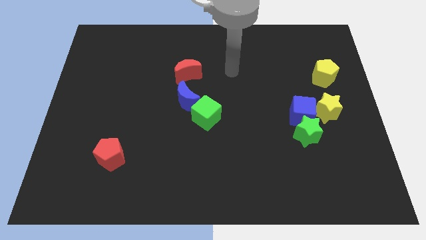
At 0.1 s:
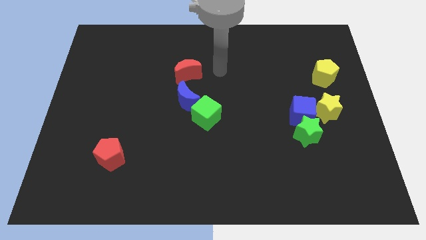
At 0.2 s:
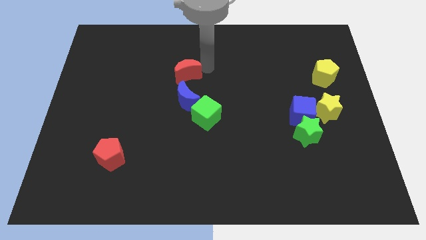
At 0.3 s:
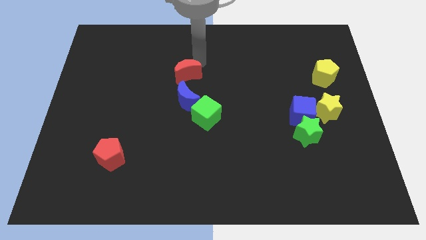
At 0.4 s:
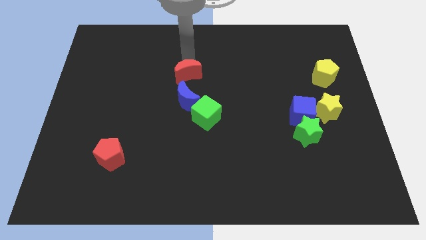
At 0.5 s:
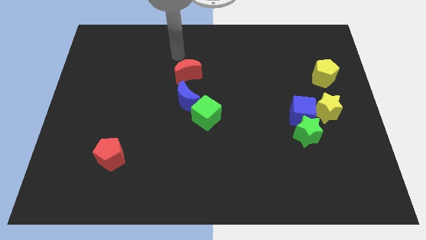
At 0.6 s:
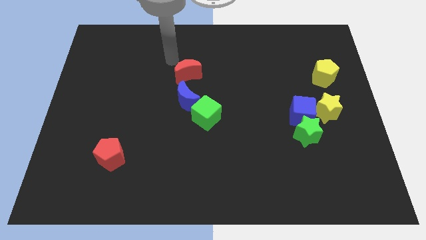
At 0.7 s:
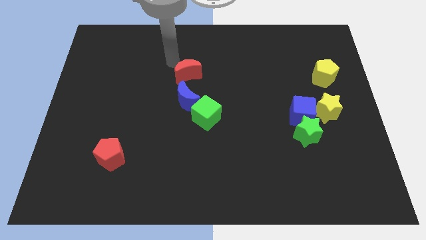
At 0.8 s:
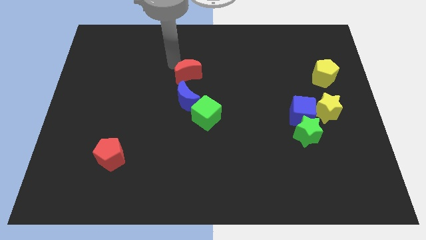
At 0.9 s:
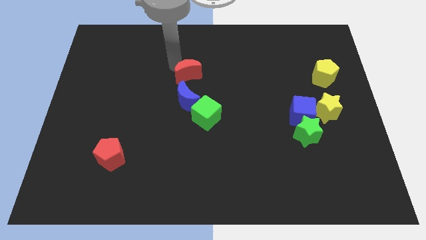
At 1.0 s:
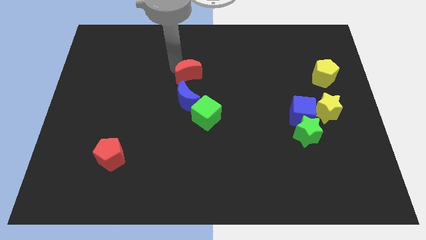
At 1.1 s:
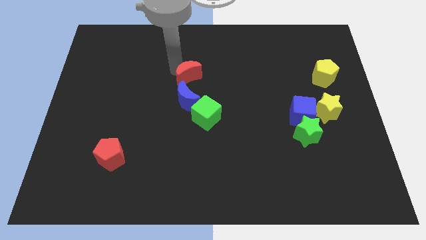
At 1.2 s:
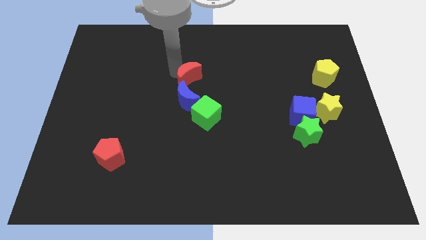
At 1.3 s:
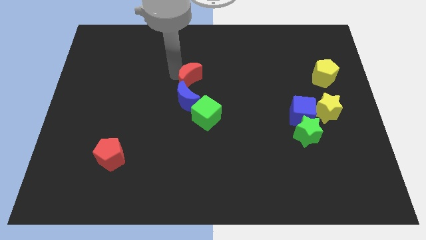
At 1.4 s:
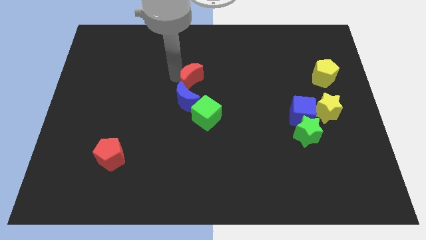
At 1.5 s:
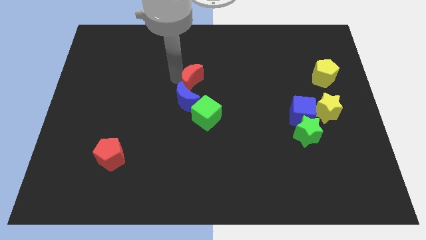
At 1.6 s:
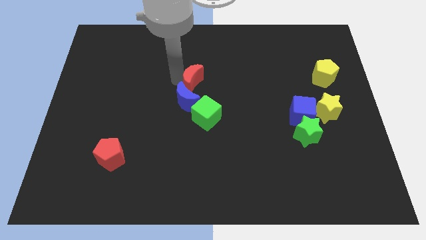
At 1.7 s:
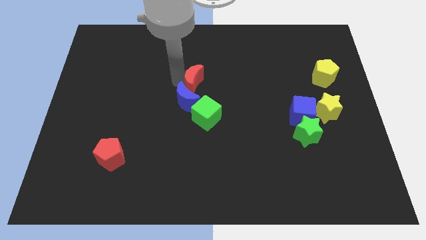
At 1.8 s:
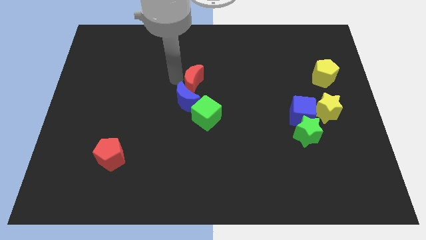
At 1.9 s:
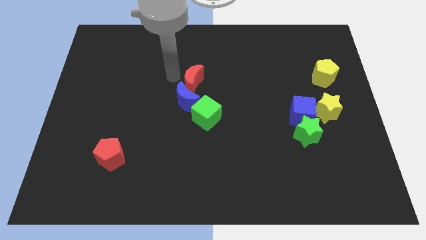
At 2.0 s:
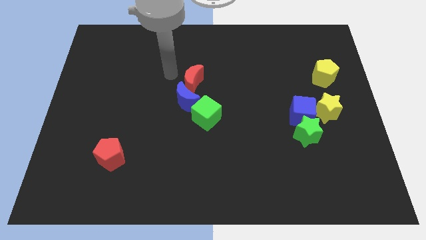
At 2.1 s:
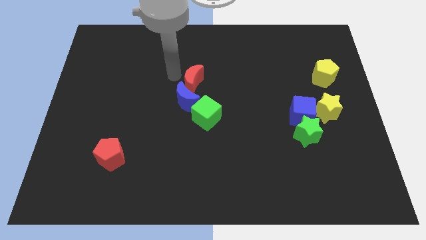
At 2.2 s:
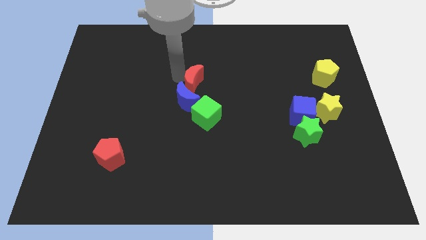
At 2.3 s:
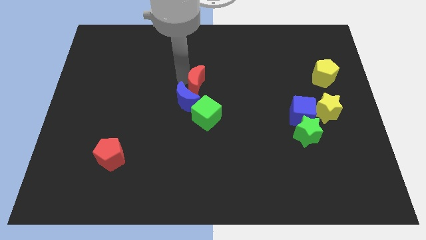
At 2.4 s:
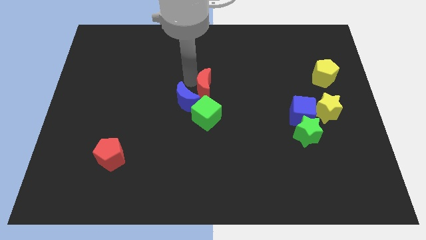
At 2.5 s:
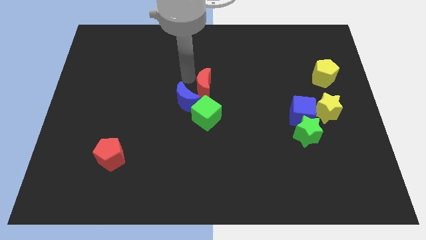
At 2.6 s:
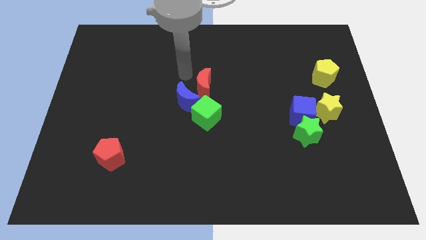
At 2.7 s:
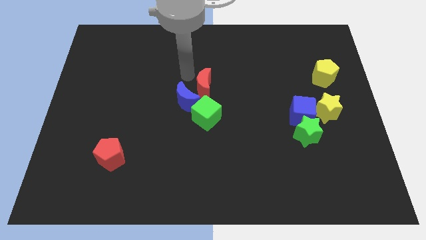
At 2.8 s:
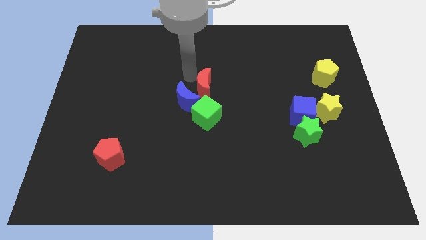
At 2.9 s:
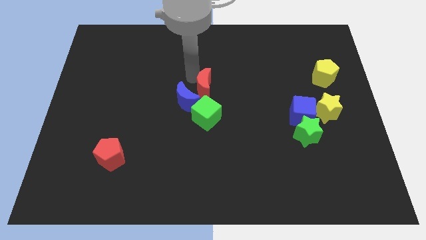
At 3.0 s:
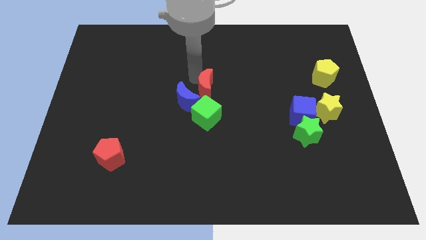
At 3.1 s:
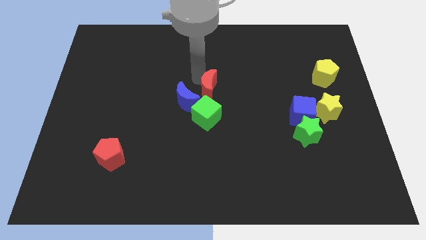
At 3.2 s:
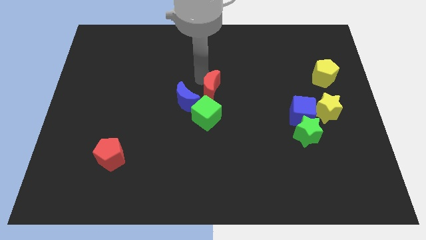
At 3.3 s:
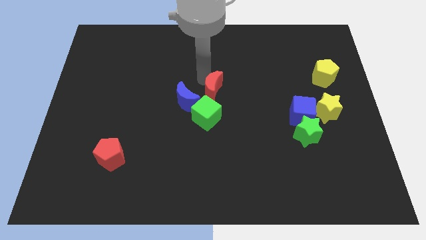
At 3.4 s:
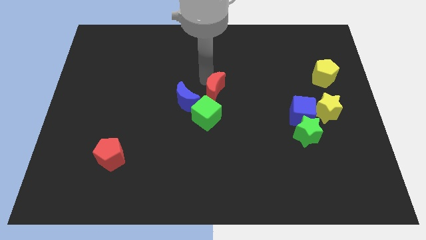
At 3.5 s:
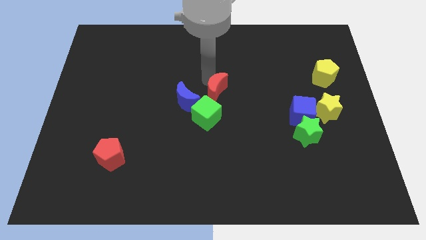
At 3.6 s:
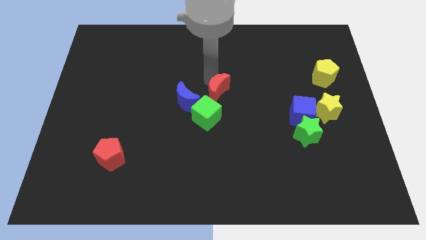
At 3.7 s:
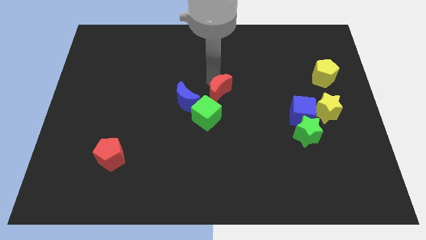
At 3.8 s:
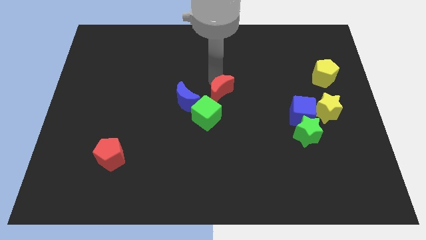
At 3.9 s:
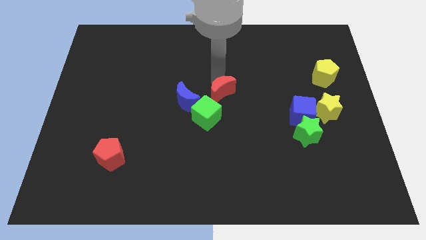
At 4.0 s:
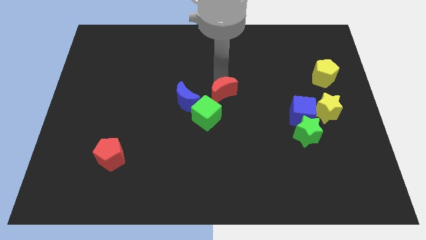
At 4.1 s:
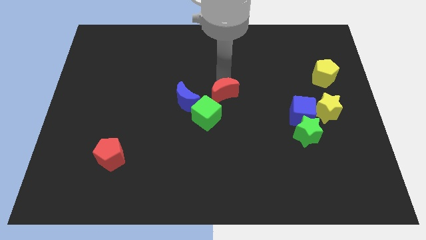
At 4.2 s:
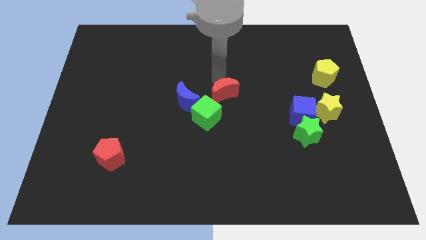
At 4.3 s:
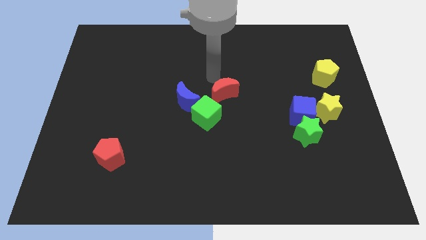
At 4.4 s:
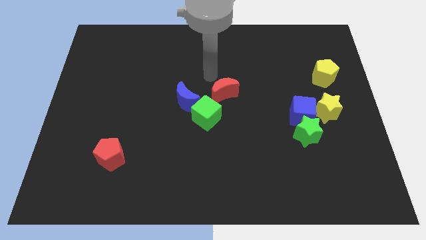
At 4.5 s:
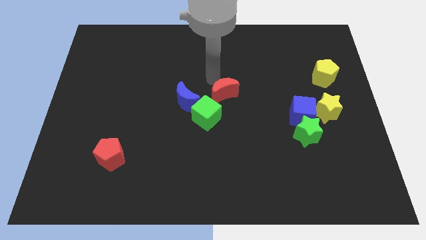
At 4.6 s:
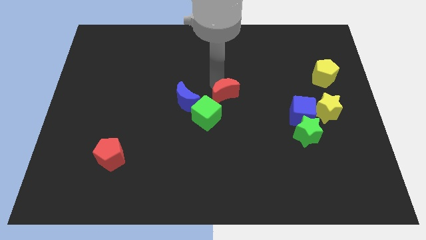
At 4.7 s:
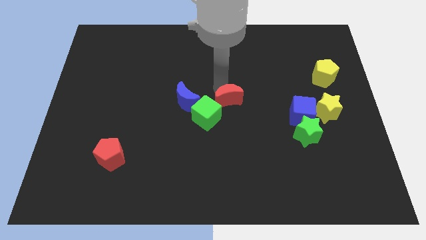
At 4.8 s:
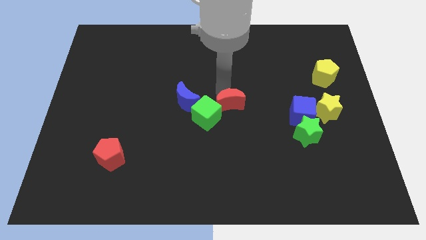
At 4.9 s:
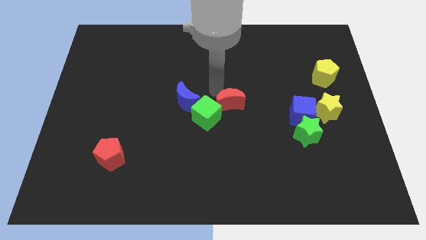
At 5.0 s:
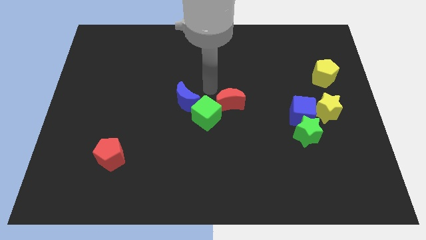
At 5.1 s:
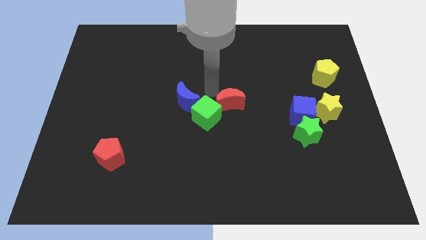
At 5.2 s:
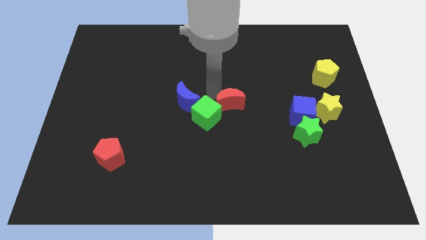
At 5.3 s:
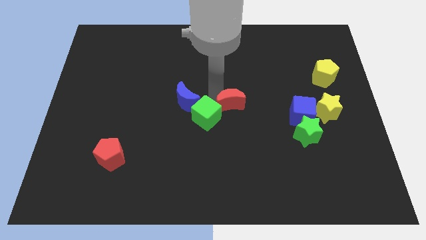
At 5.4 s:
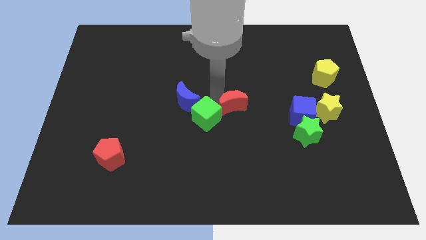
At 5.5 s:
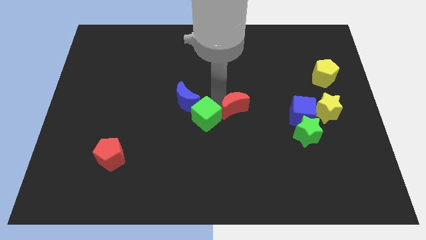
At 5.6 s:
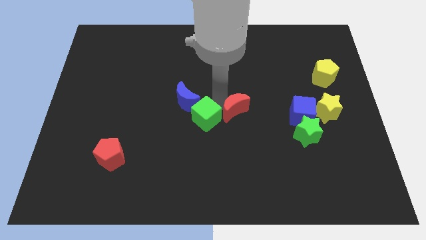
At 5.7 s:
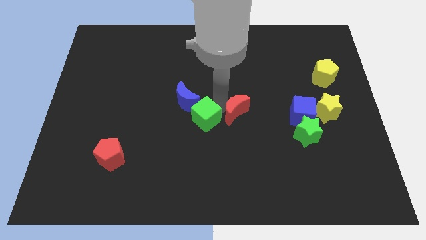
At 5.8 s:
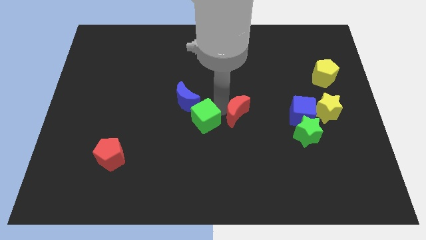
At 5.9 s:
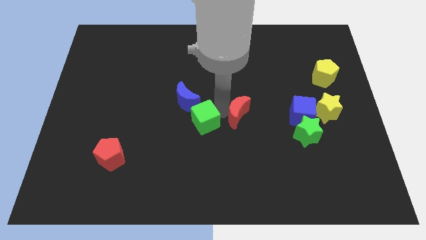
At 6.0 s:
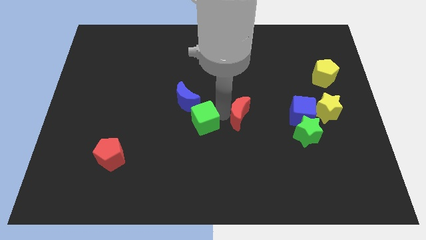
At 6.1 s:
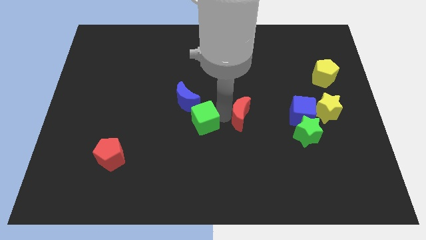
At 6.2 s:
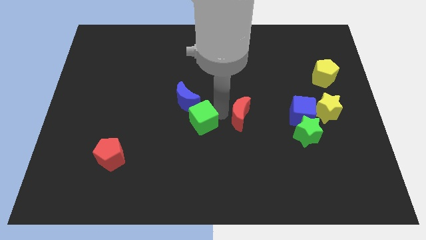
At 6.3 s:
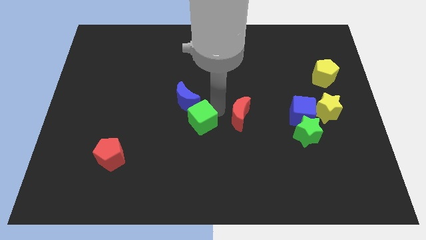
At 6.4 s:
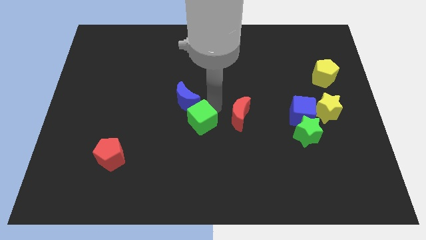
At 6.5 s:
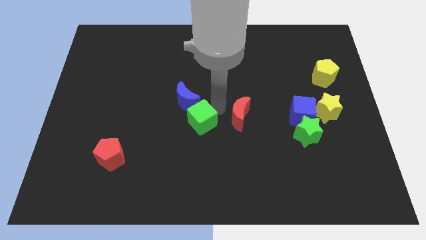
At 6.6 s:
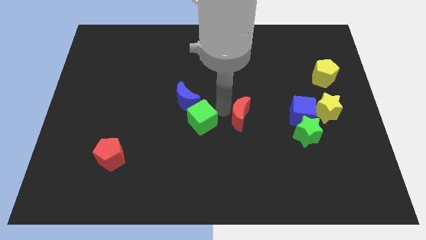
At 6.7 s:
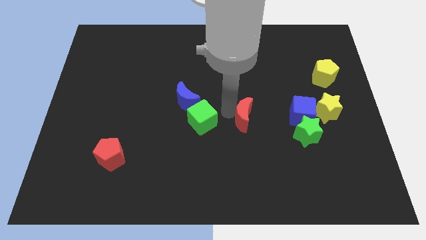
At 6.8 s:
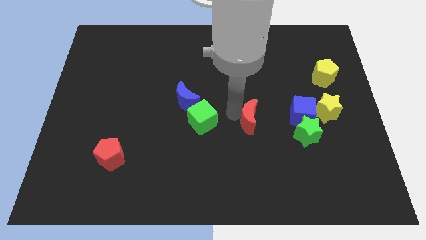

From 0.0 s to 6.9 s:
push the red moon diagonally downwards and to the right

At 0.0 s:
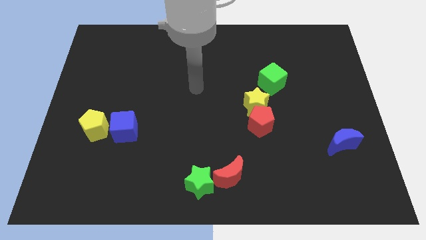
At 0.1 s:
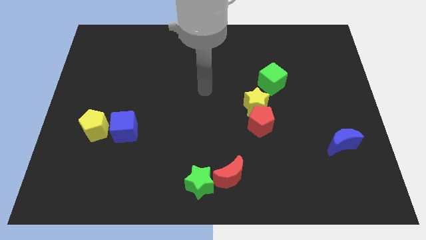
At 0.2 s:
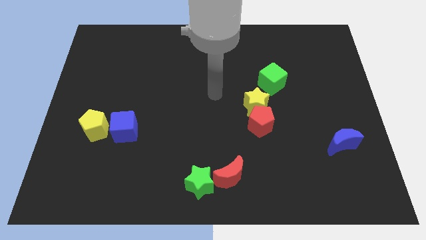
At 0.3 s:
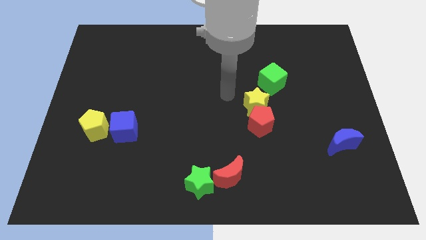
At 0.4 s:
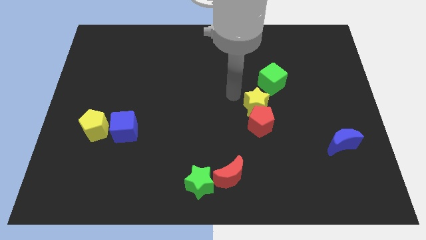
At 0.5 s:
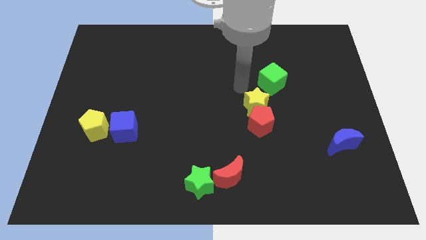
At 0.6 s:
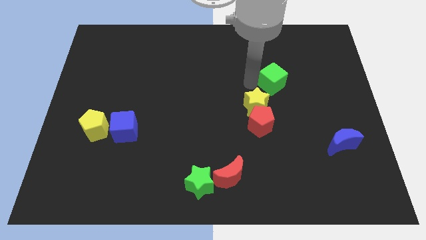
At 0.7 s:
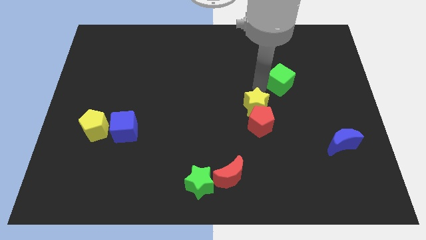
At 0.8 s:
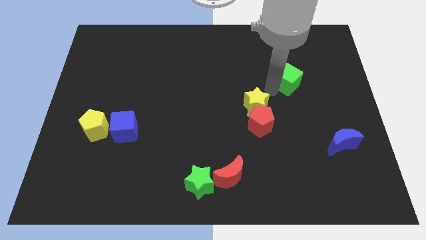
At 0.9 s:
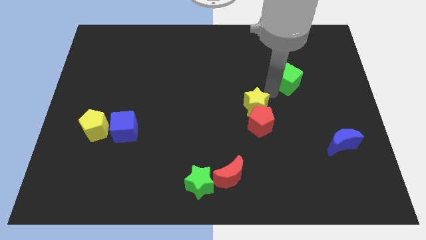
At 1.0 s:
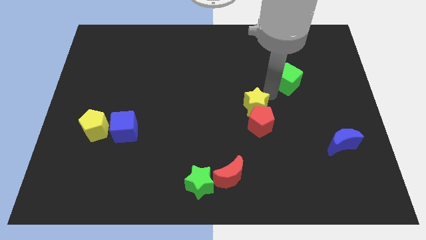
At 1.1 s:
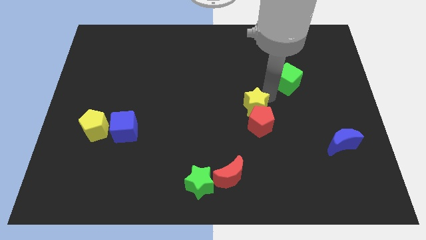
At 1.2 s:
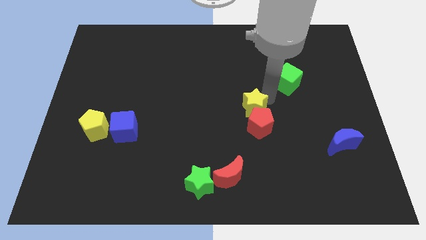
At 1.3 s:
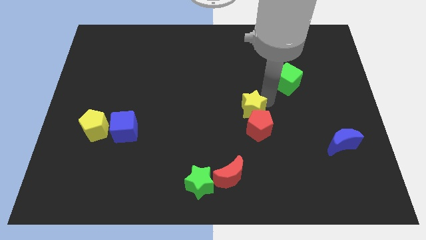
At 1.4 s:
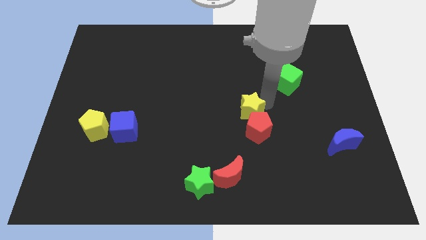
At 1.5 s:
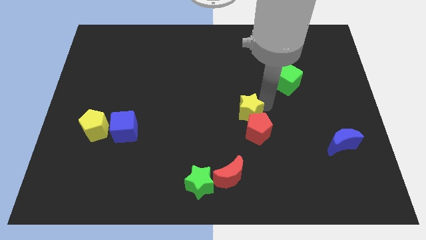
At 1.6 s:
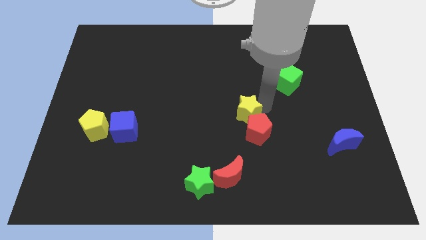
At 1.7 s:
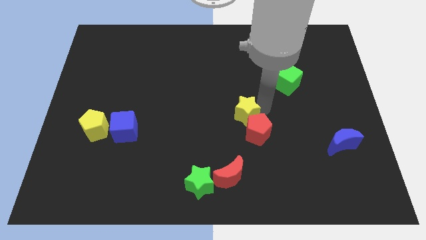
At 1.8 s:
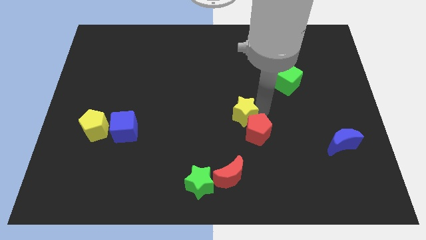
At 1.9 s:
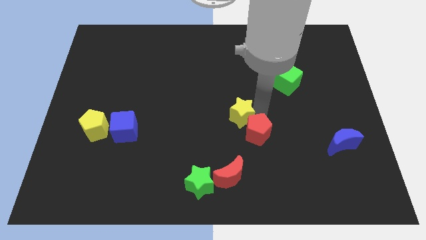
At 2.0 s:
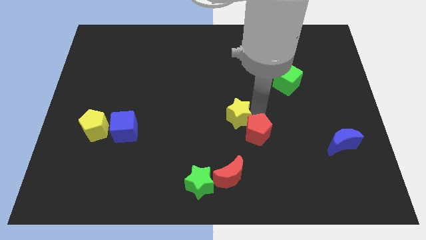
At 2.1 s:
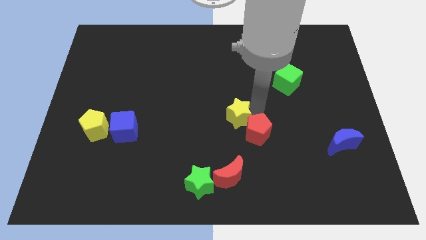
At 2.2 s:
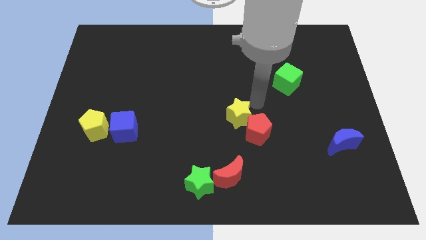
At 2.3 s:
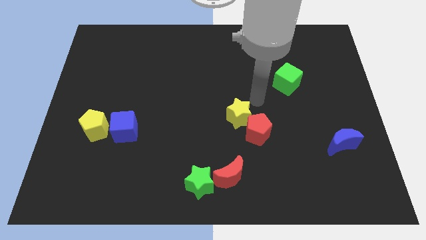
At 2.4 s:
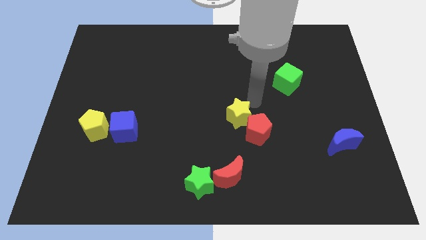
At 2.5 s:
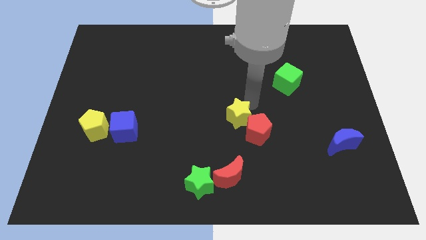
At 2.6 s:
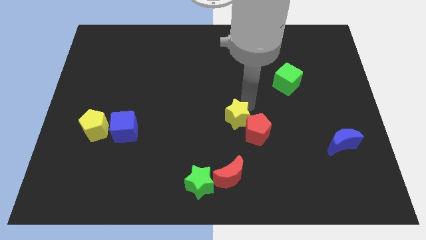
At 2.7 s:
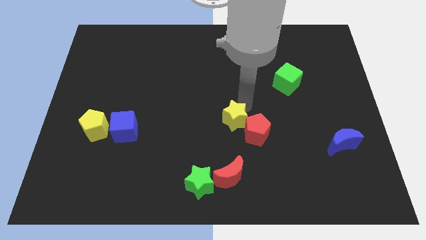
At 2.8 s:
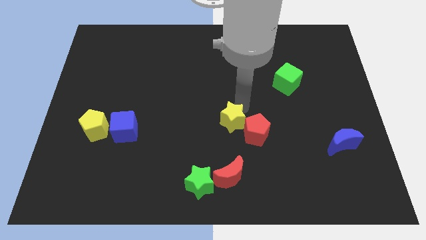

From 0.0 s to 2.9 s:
slide the yellow star down and to the left diagonally a little
